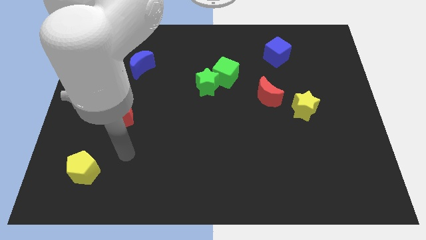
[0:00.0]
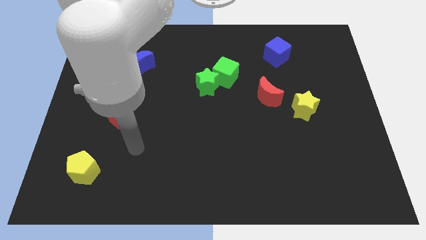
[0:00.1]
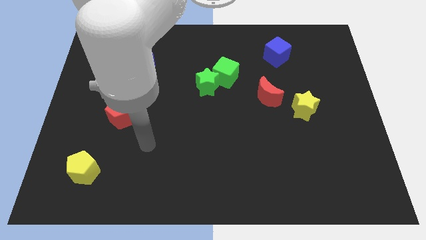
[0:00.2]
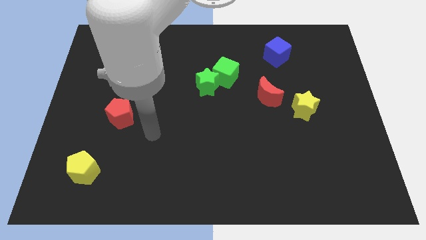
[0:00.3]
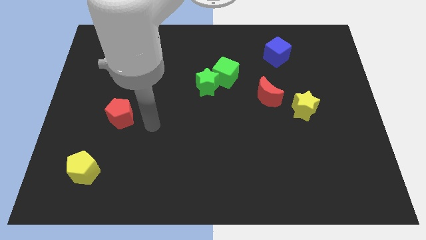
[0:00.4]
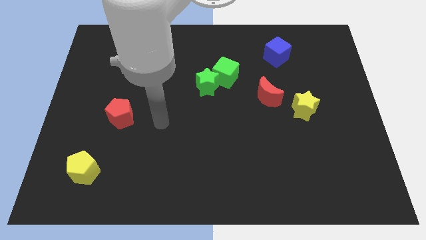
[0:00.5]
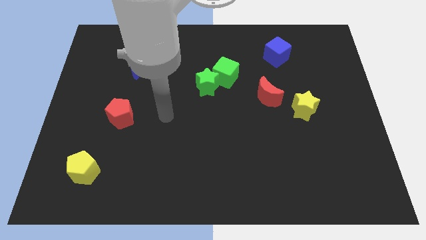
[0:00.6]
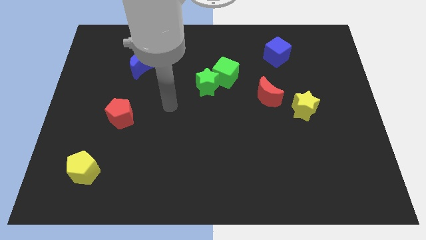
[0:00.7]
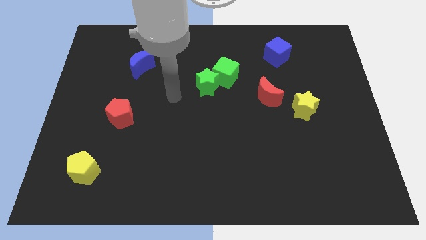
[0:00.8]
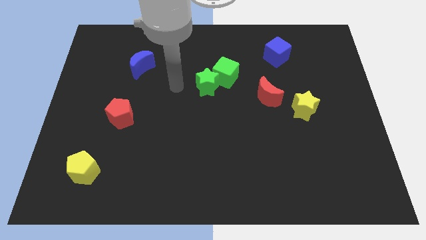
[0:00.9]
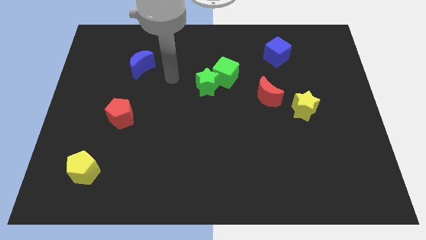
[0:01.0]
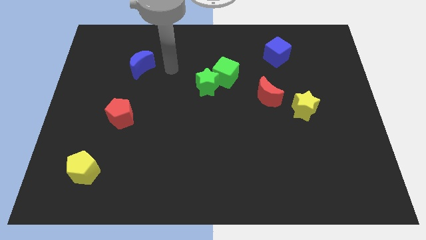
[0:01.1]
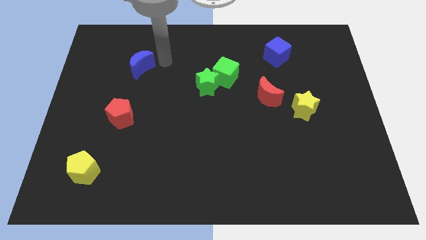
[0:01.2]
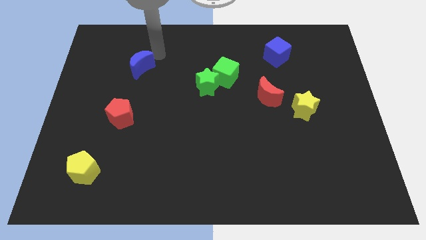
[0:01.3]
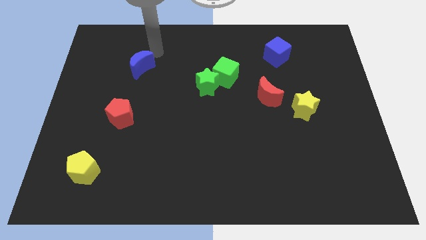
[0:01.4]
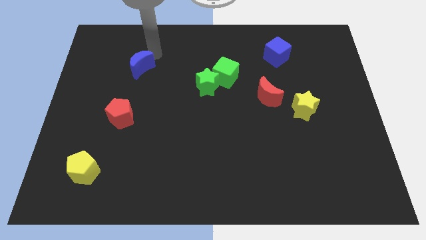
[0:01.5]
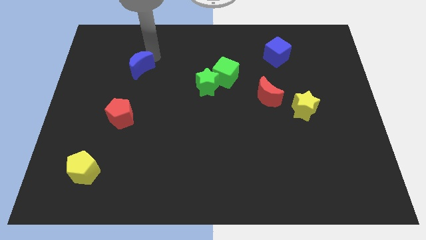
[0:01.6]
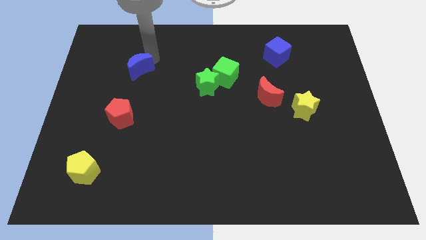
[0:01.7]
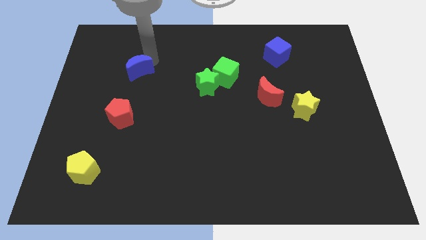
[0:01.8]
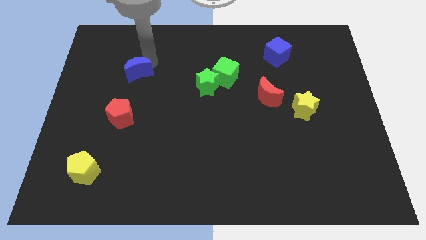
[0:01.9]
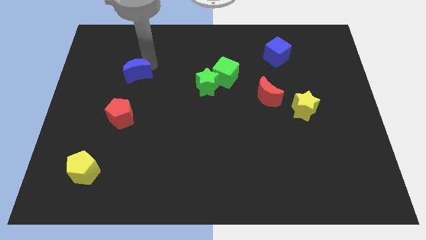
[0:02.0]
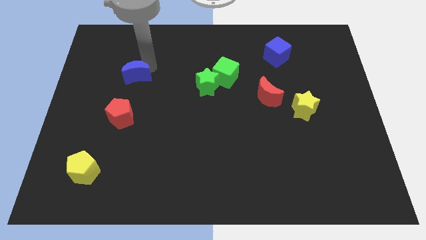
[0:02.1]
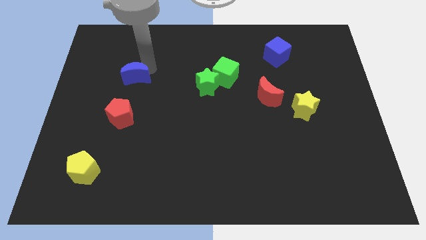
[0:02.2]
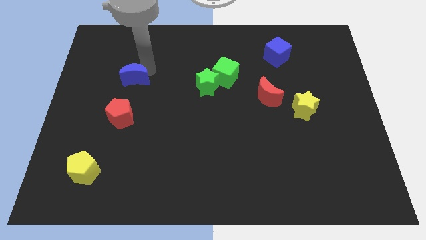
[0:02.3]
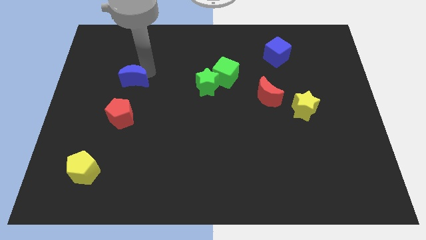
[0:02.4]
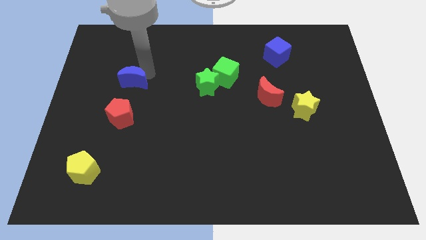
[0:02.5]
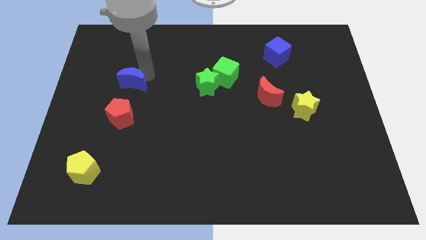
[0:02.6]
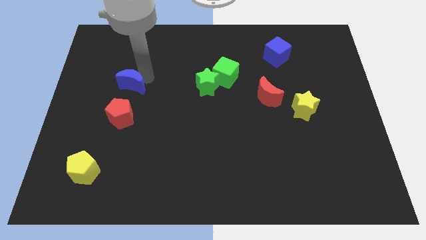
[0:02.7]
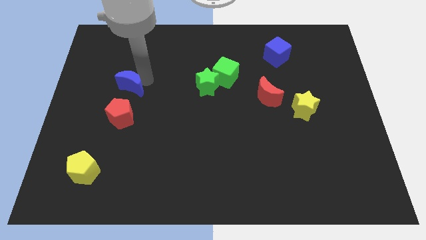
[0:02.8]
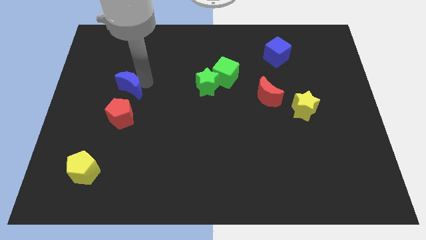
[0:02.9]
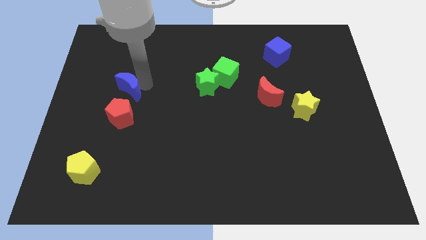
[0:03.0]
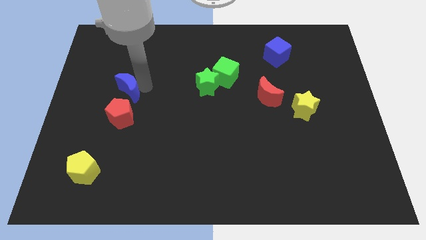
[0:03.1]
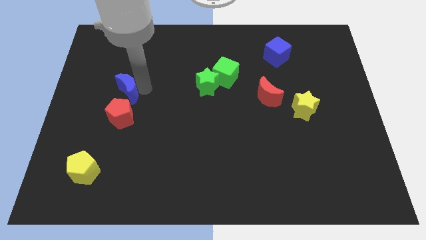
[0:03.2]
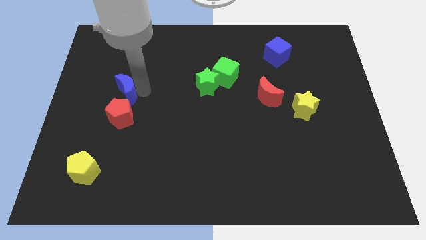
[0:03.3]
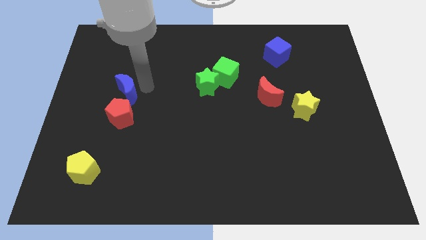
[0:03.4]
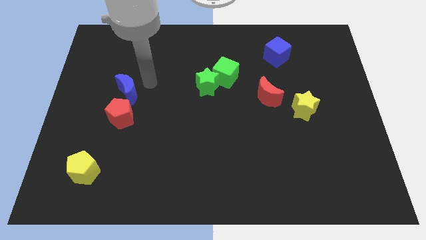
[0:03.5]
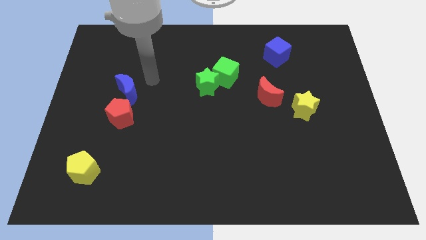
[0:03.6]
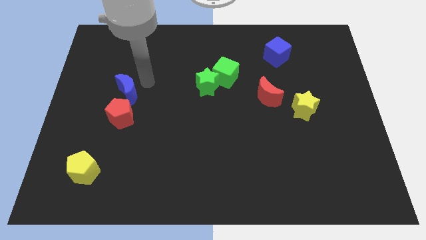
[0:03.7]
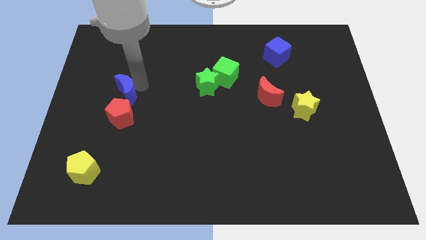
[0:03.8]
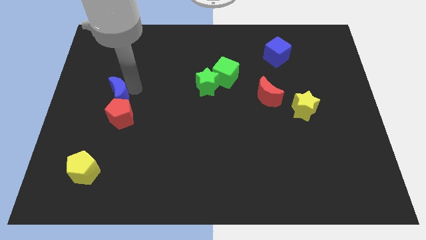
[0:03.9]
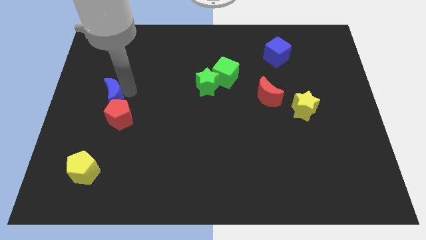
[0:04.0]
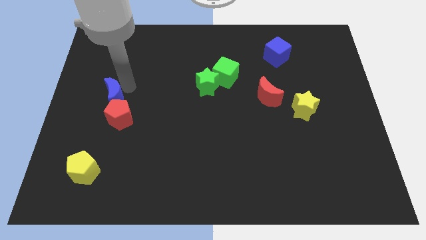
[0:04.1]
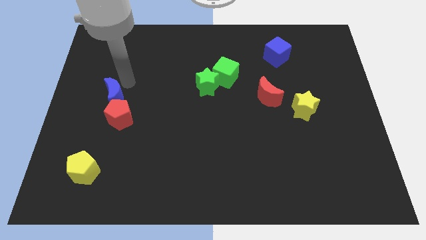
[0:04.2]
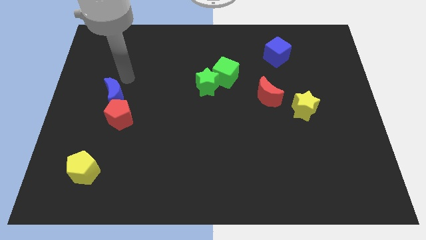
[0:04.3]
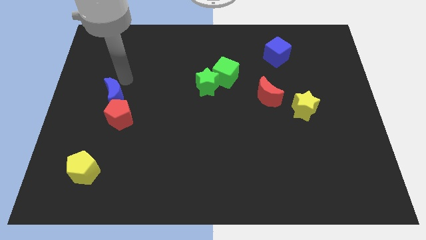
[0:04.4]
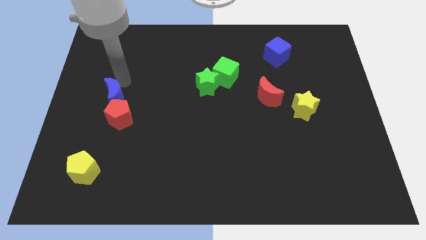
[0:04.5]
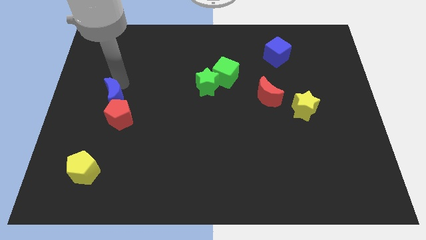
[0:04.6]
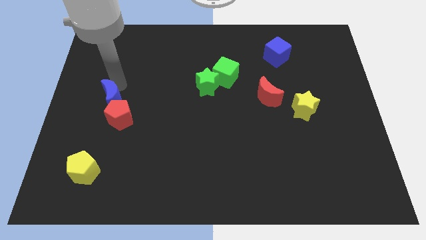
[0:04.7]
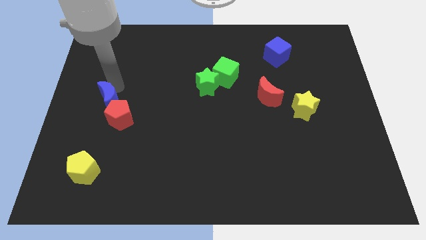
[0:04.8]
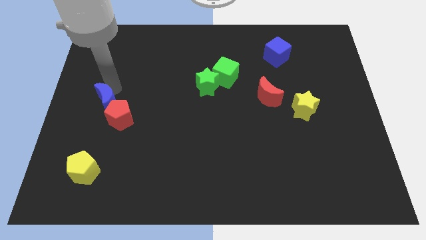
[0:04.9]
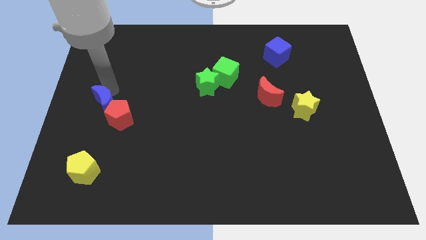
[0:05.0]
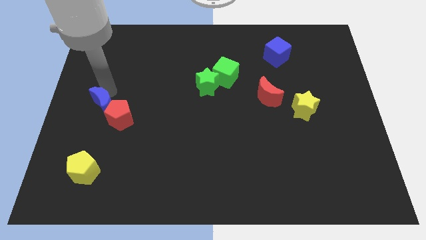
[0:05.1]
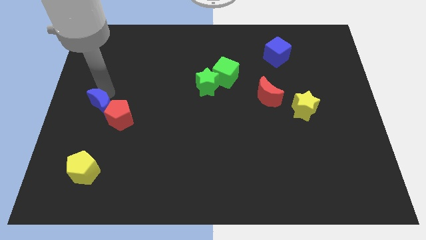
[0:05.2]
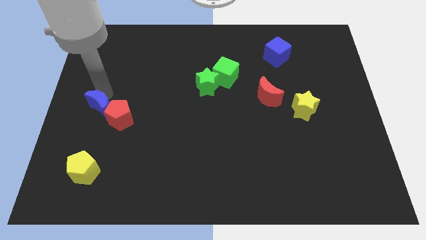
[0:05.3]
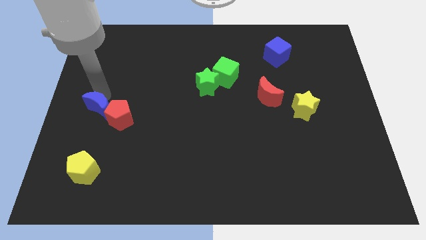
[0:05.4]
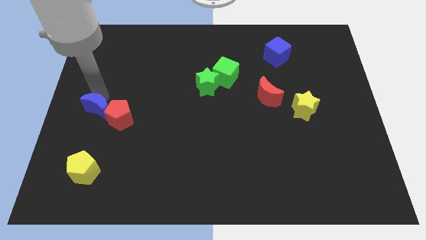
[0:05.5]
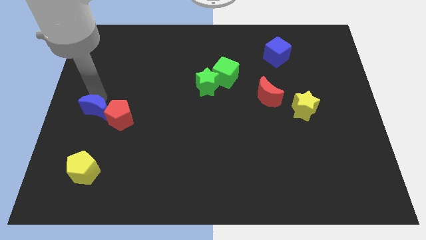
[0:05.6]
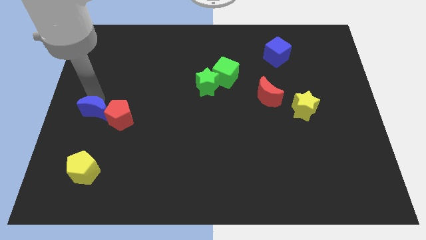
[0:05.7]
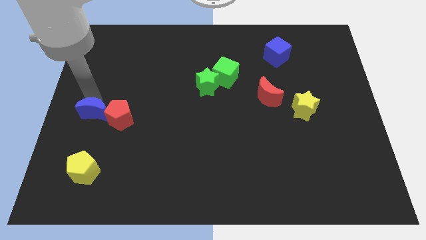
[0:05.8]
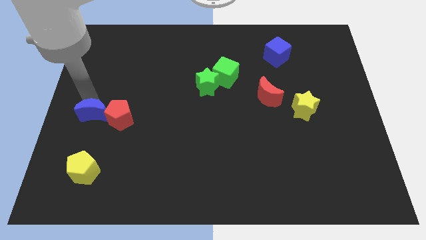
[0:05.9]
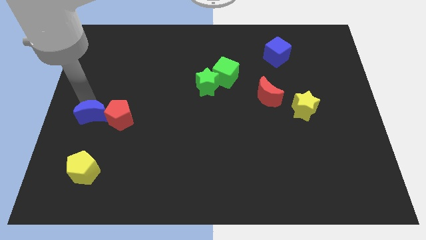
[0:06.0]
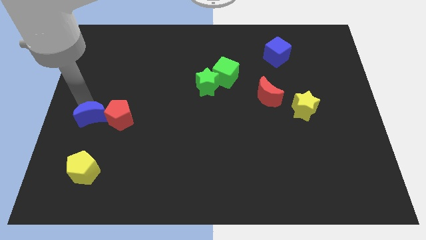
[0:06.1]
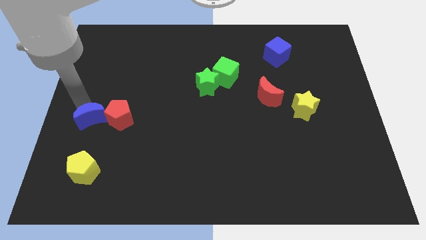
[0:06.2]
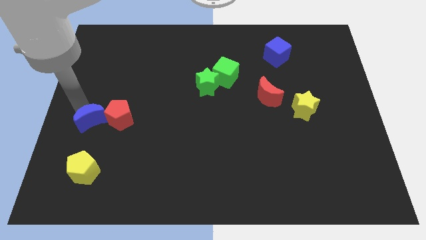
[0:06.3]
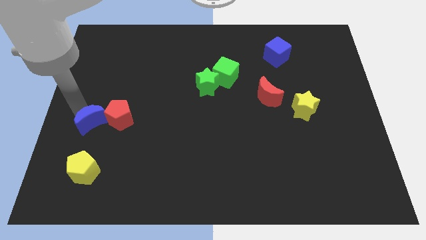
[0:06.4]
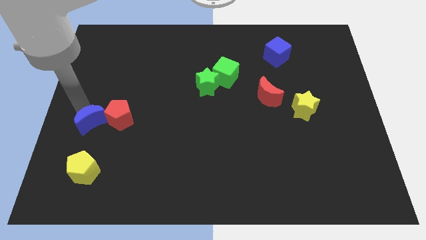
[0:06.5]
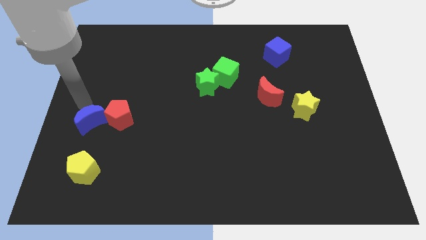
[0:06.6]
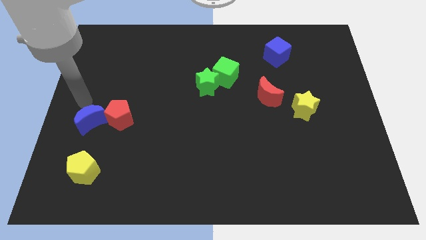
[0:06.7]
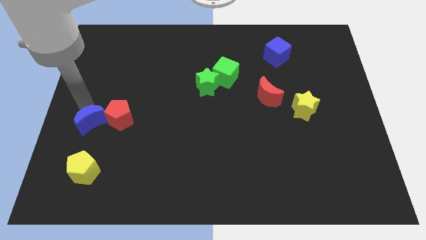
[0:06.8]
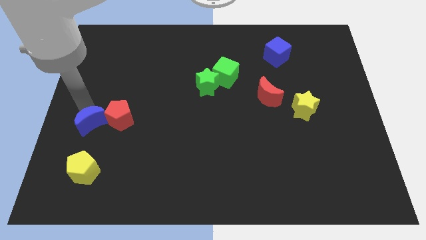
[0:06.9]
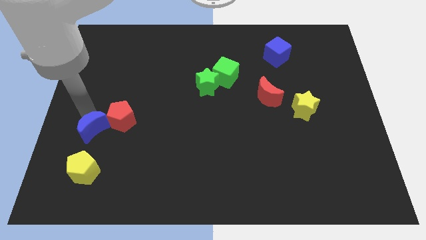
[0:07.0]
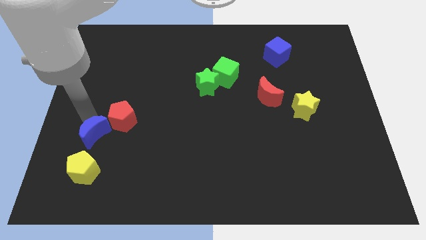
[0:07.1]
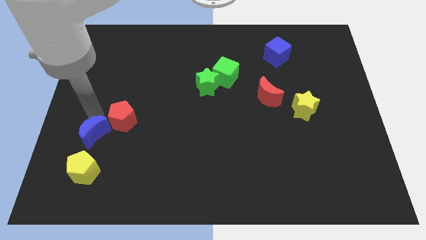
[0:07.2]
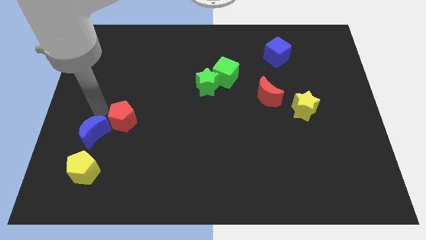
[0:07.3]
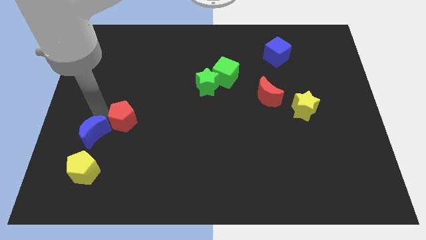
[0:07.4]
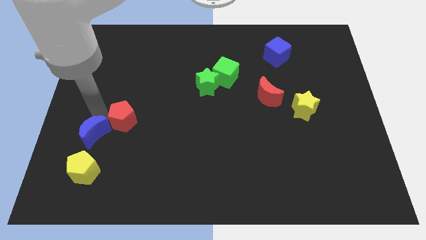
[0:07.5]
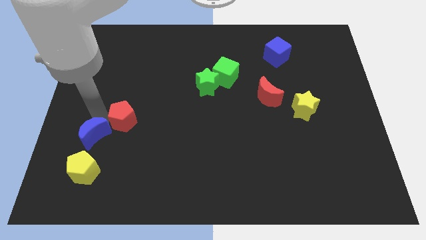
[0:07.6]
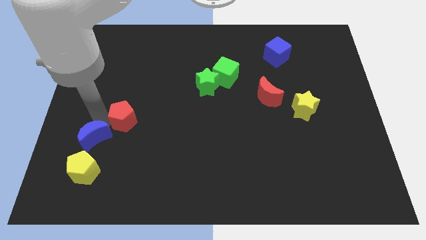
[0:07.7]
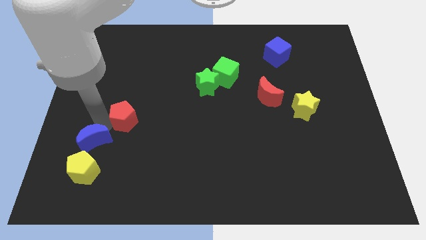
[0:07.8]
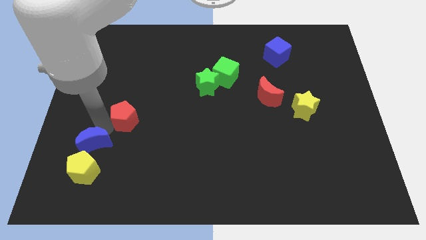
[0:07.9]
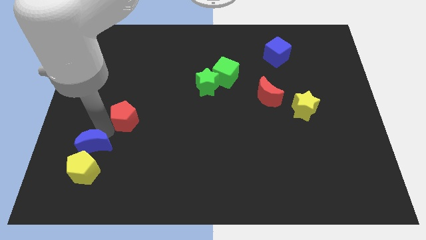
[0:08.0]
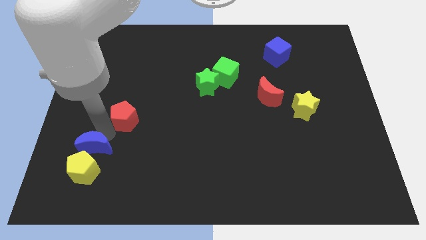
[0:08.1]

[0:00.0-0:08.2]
move the blue moon to the yellow pentagon
